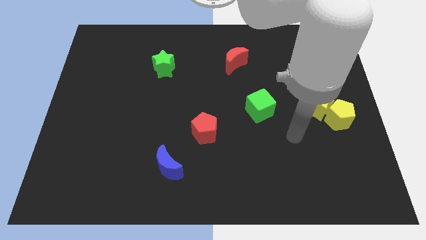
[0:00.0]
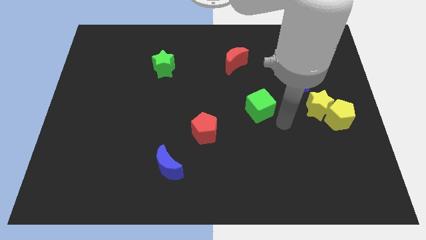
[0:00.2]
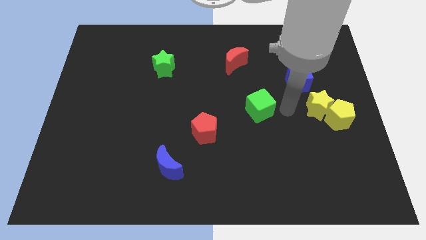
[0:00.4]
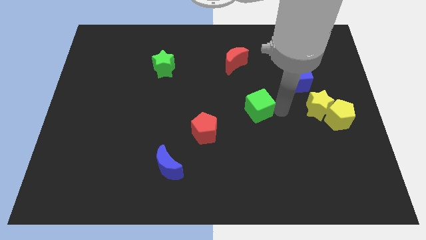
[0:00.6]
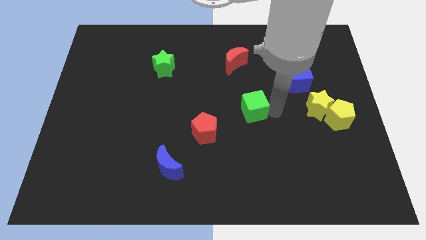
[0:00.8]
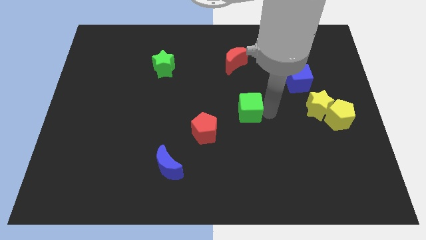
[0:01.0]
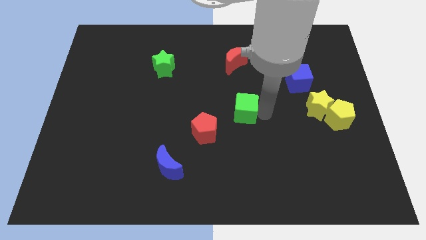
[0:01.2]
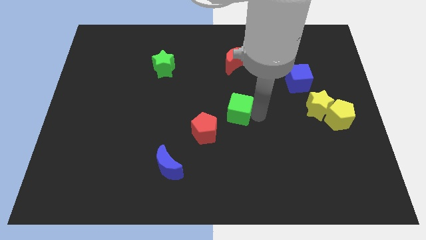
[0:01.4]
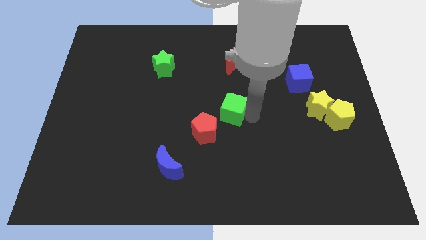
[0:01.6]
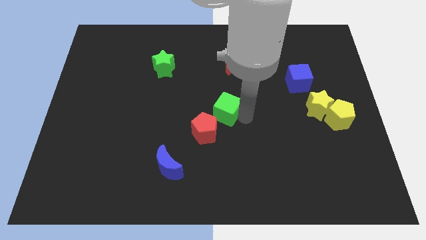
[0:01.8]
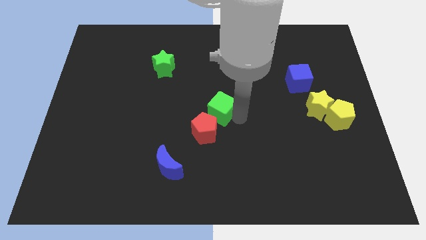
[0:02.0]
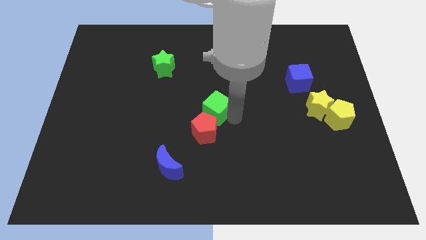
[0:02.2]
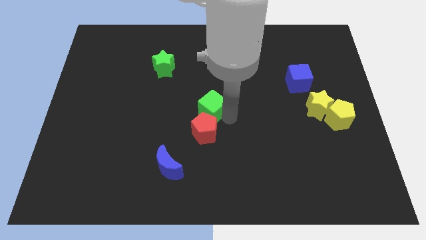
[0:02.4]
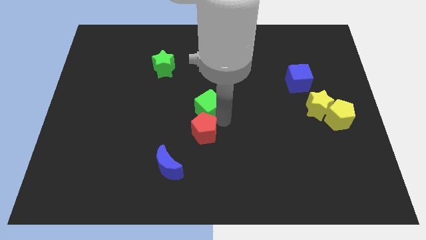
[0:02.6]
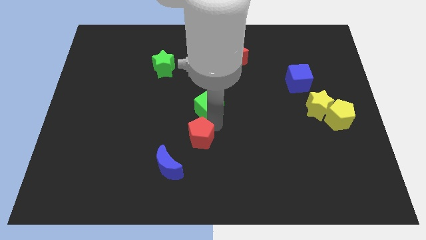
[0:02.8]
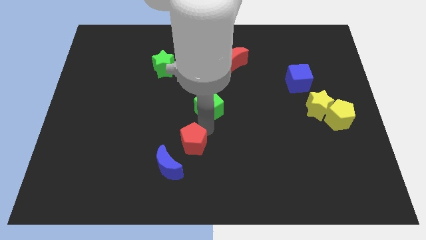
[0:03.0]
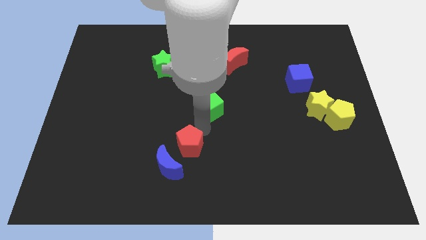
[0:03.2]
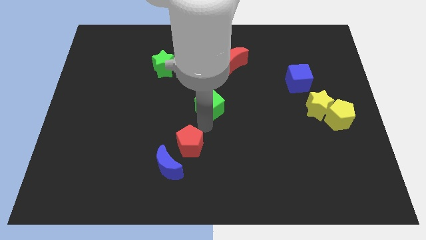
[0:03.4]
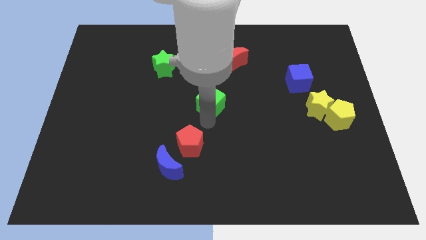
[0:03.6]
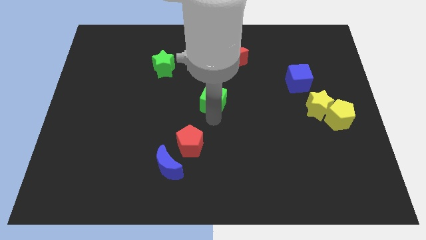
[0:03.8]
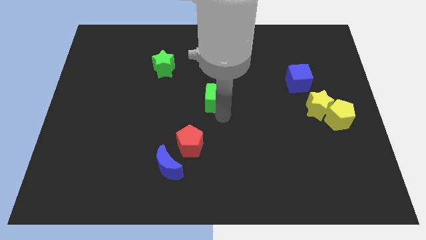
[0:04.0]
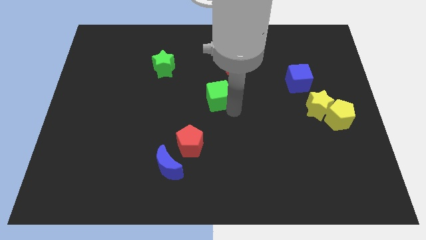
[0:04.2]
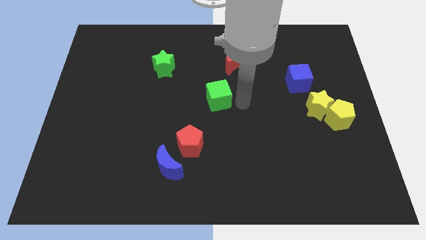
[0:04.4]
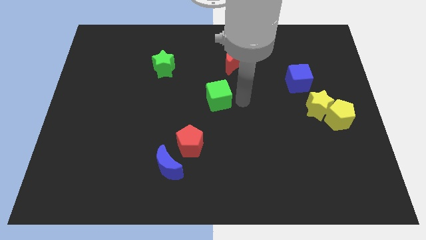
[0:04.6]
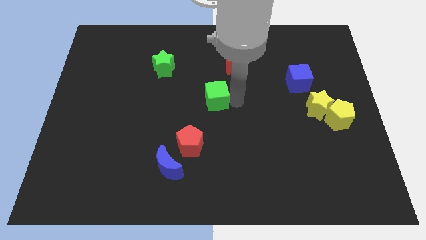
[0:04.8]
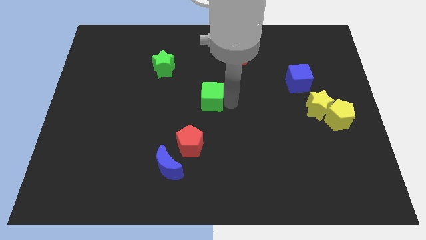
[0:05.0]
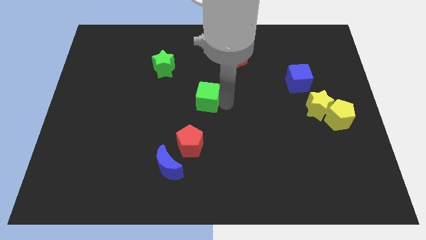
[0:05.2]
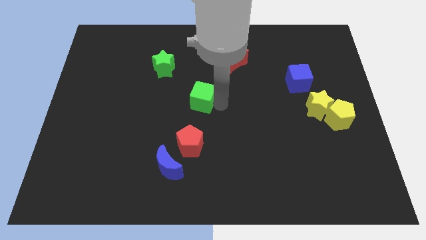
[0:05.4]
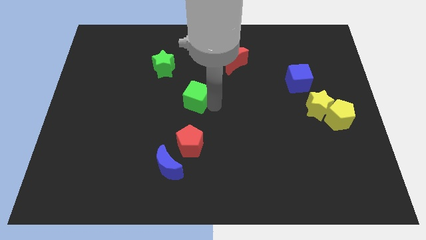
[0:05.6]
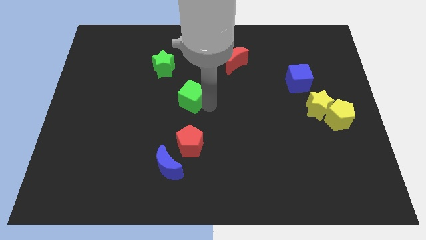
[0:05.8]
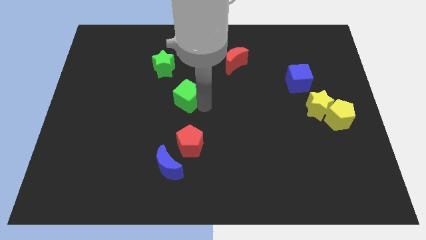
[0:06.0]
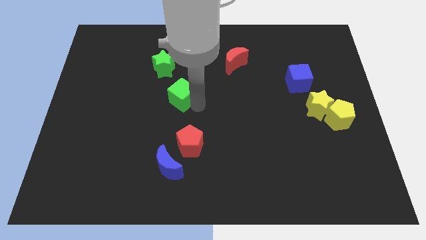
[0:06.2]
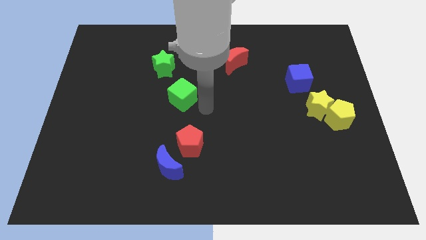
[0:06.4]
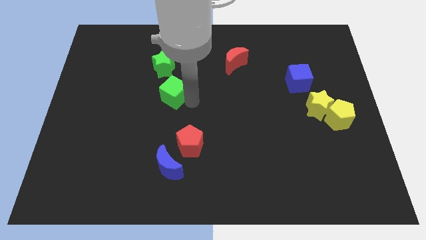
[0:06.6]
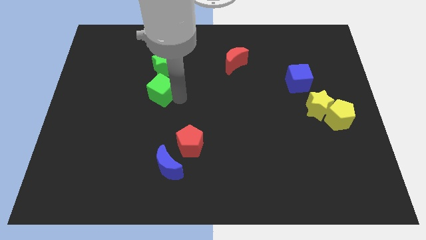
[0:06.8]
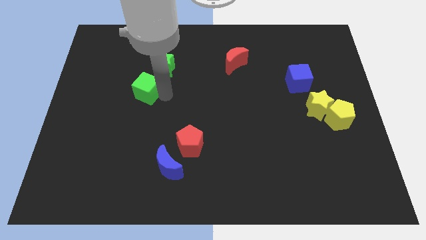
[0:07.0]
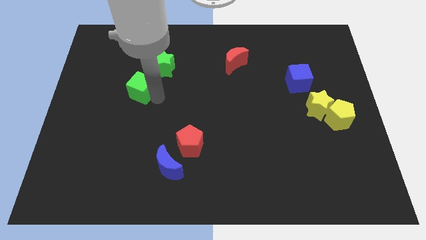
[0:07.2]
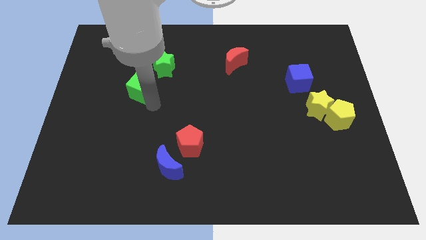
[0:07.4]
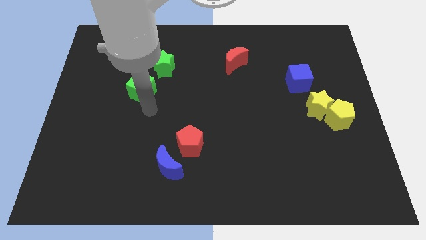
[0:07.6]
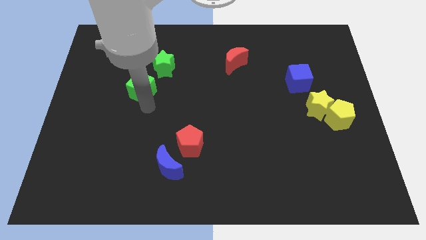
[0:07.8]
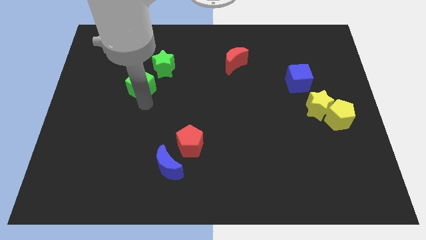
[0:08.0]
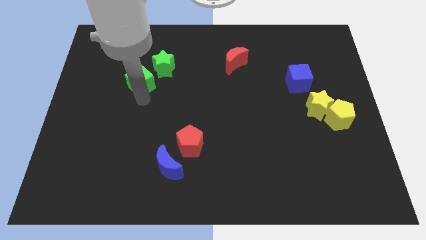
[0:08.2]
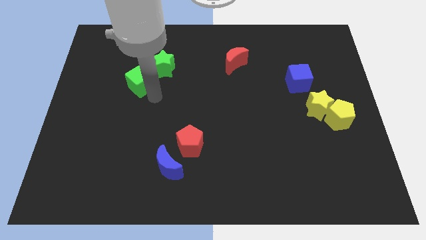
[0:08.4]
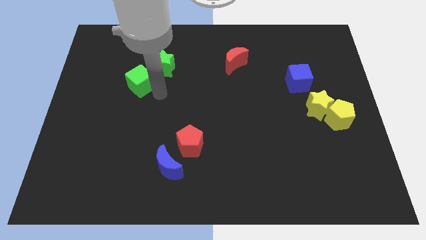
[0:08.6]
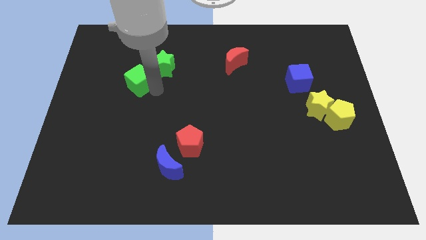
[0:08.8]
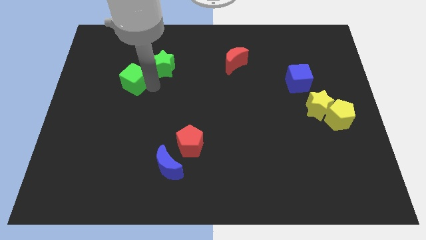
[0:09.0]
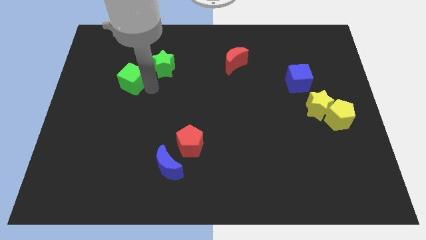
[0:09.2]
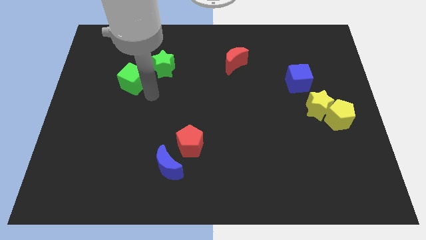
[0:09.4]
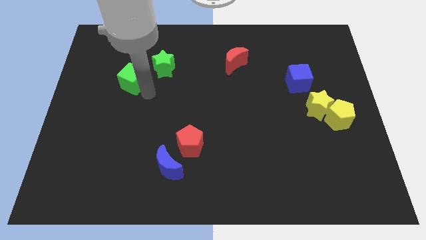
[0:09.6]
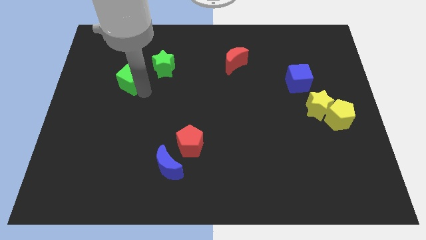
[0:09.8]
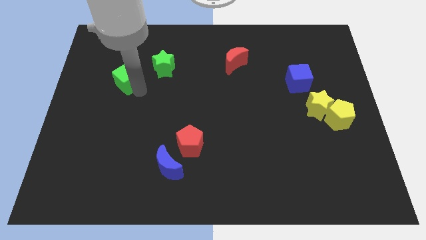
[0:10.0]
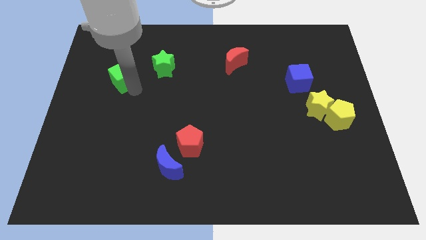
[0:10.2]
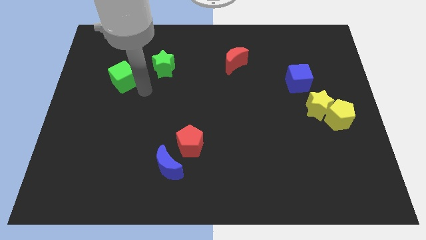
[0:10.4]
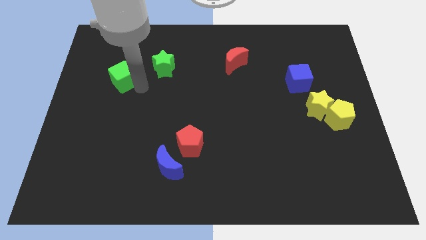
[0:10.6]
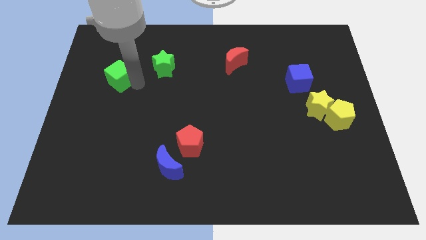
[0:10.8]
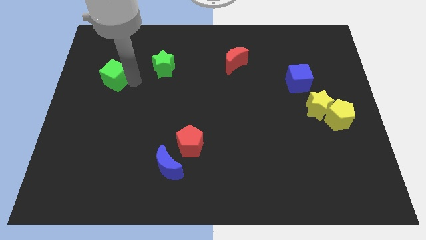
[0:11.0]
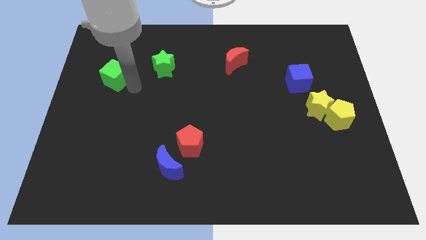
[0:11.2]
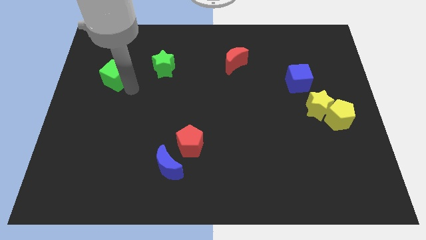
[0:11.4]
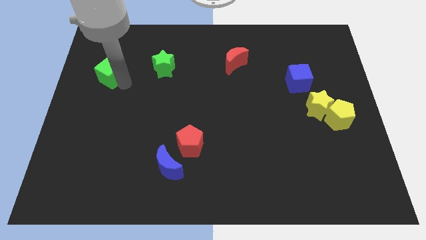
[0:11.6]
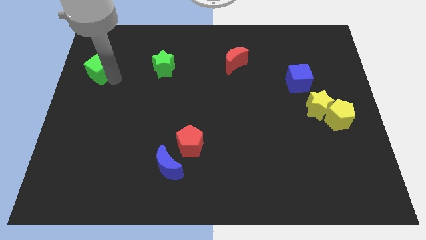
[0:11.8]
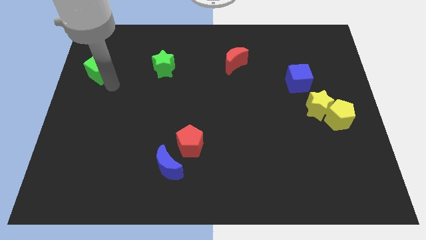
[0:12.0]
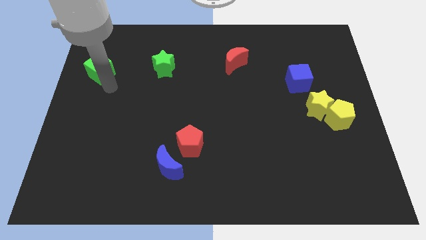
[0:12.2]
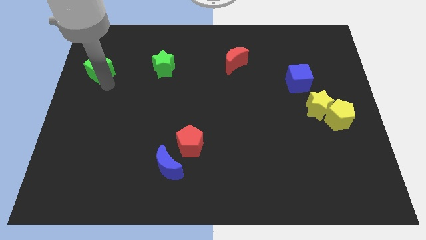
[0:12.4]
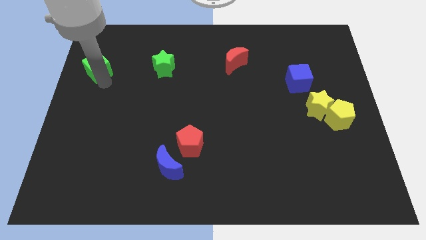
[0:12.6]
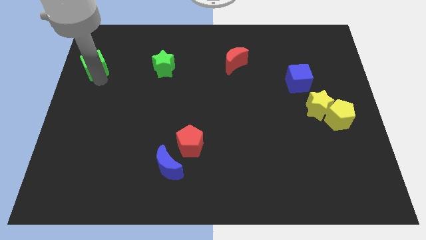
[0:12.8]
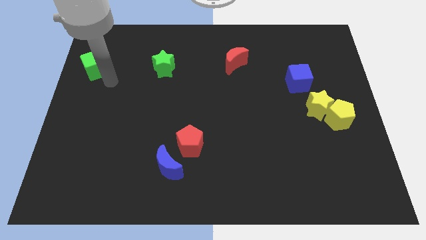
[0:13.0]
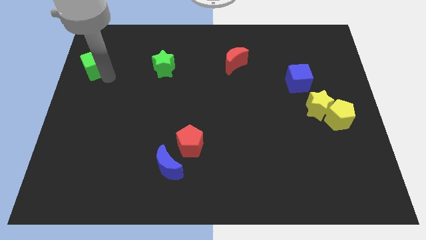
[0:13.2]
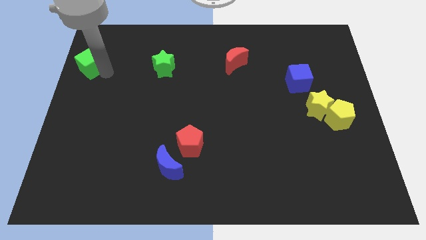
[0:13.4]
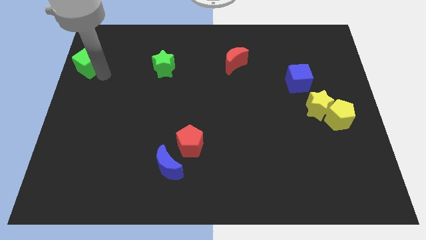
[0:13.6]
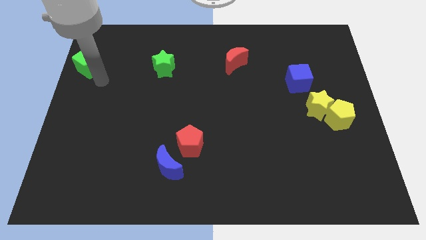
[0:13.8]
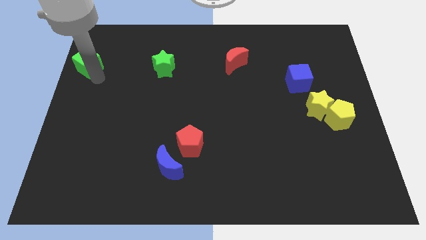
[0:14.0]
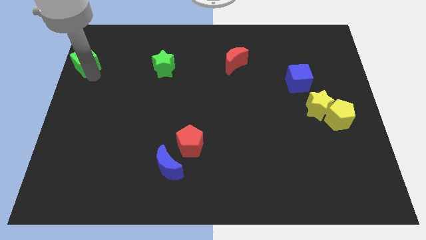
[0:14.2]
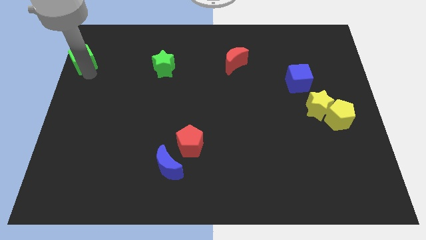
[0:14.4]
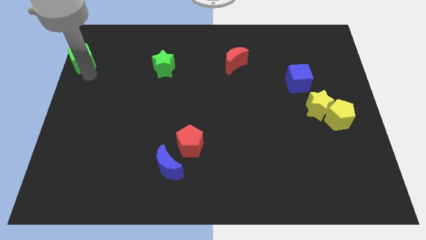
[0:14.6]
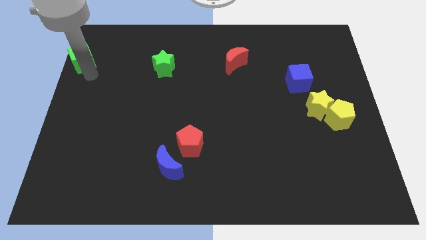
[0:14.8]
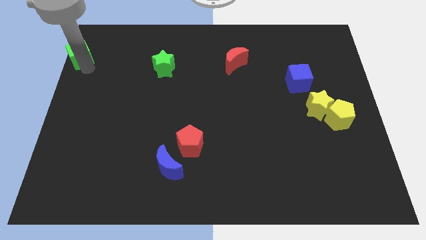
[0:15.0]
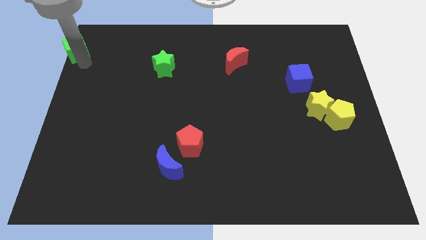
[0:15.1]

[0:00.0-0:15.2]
push the green cube to the top left
